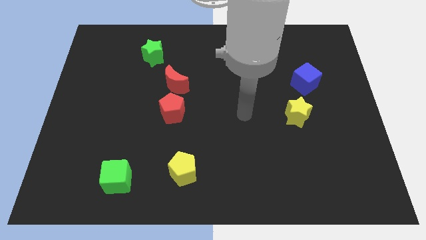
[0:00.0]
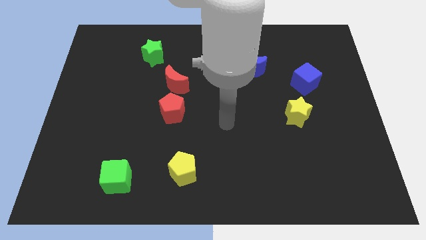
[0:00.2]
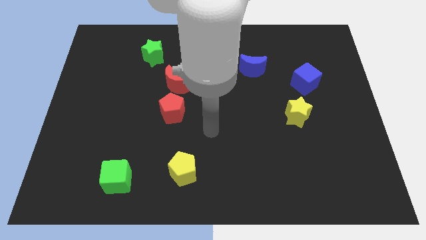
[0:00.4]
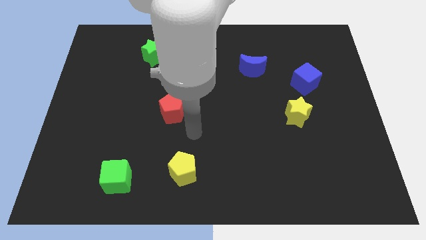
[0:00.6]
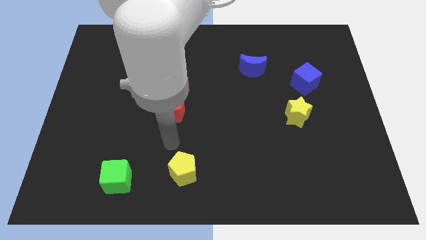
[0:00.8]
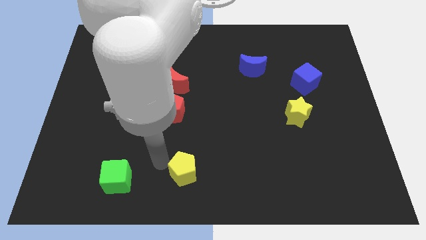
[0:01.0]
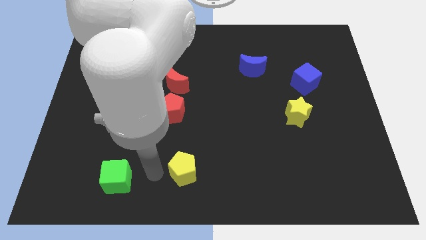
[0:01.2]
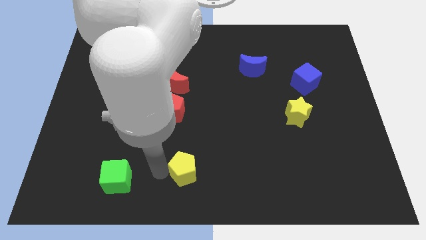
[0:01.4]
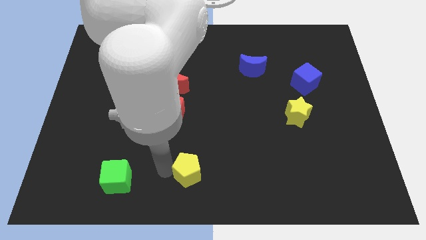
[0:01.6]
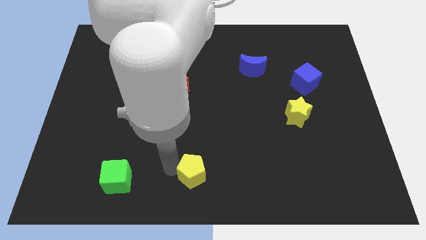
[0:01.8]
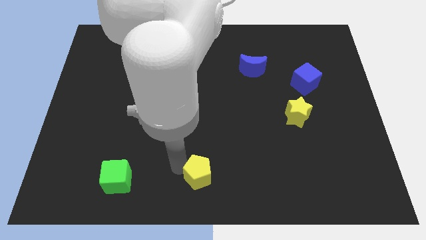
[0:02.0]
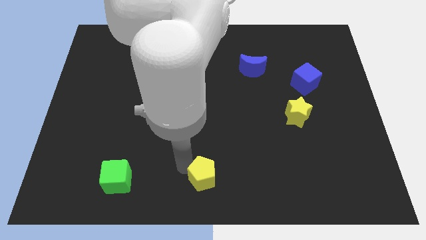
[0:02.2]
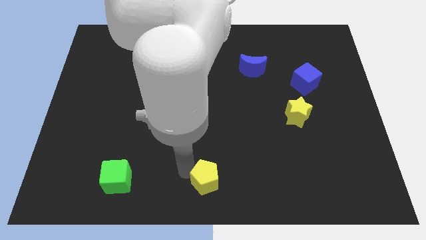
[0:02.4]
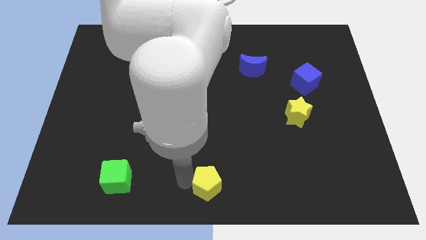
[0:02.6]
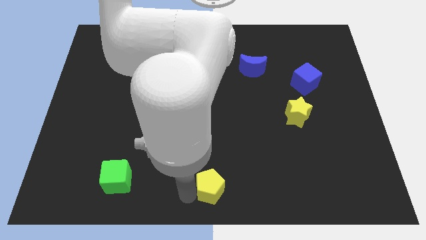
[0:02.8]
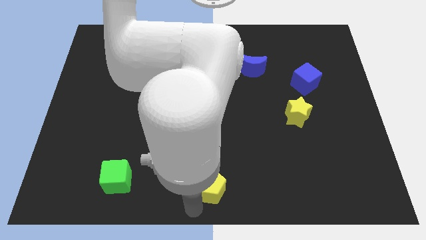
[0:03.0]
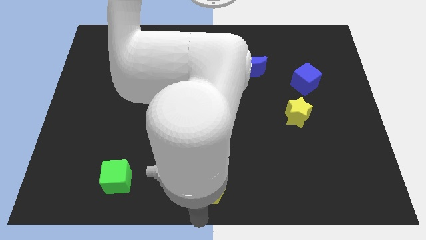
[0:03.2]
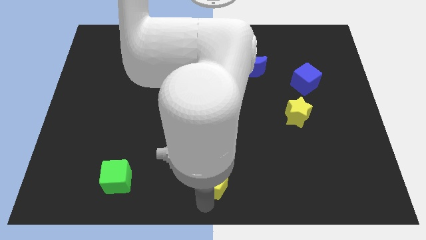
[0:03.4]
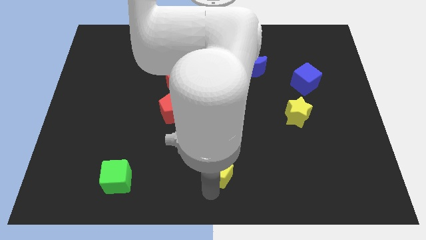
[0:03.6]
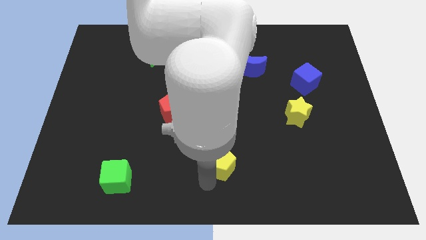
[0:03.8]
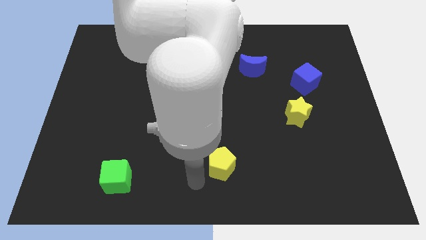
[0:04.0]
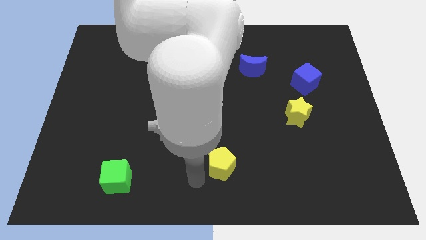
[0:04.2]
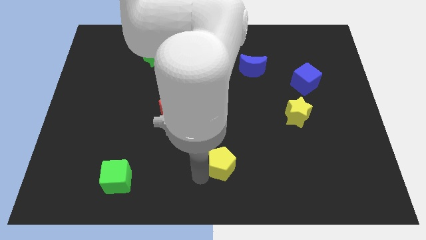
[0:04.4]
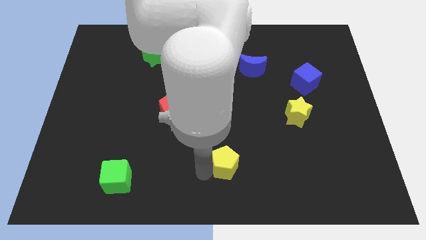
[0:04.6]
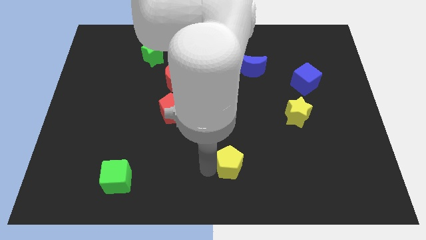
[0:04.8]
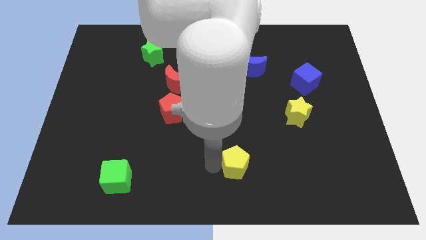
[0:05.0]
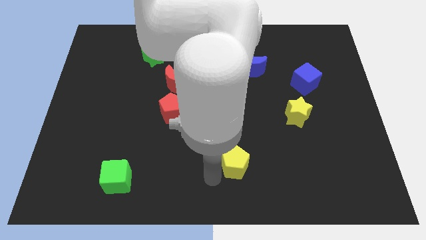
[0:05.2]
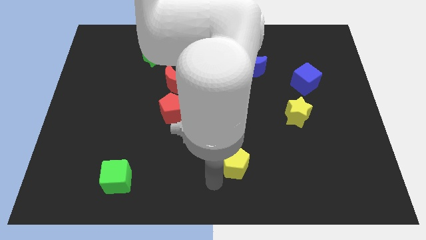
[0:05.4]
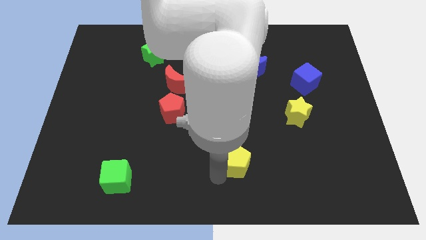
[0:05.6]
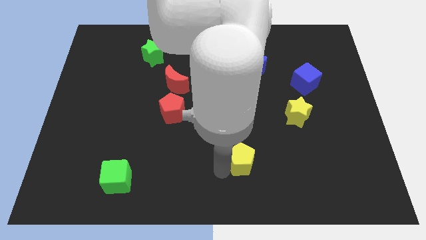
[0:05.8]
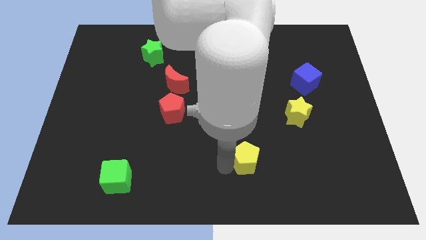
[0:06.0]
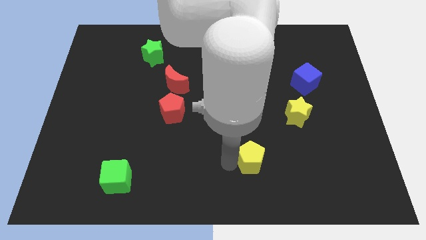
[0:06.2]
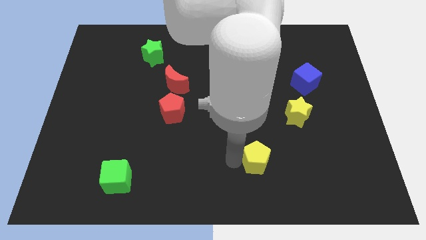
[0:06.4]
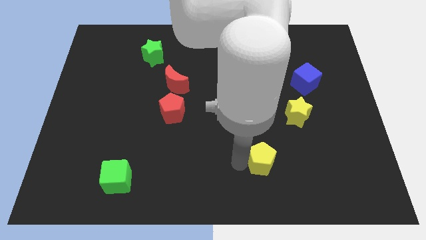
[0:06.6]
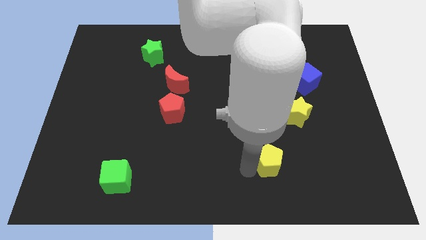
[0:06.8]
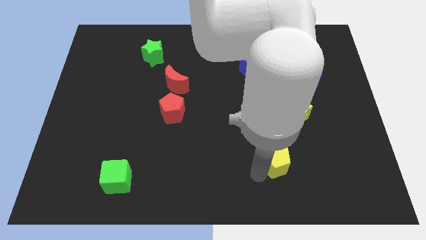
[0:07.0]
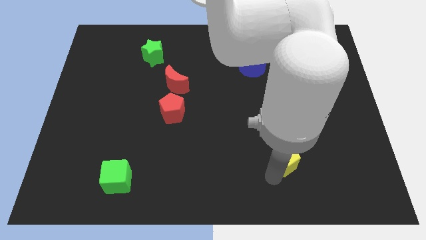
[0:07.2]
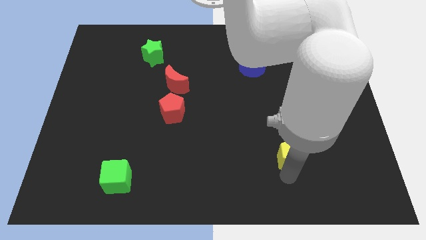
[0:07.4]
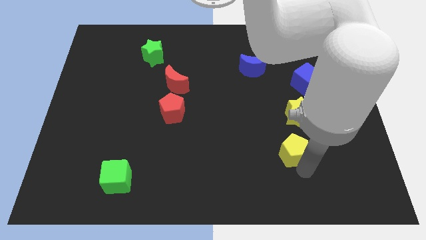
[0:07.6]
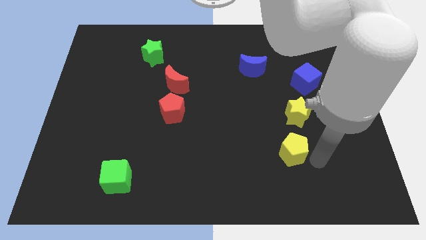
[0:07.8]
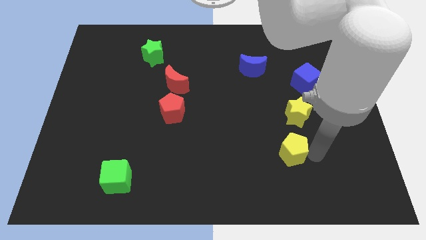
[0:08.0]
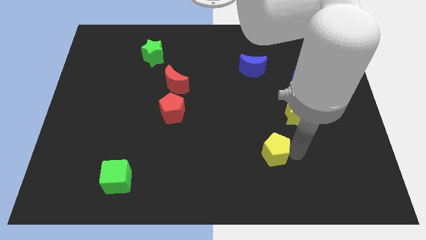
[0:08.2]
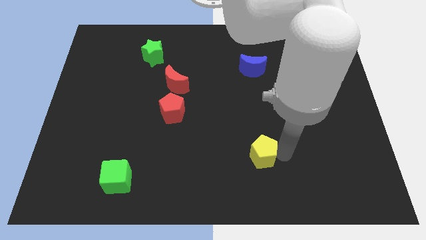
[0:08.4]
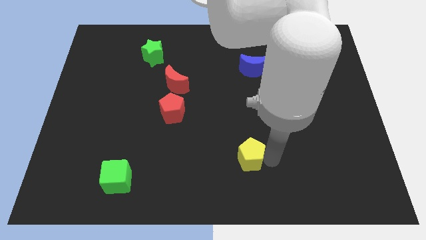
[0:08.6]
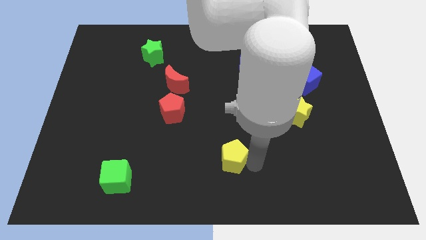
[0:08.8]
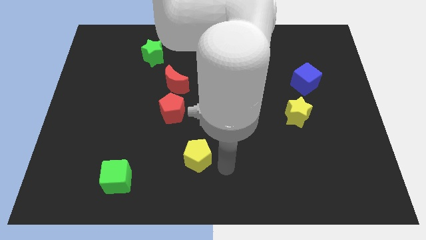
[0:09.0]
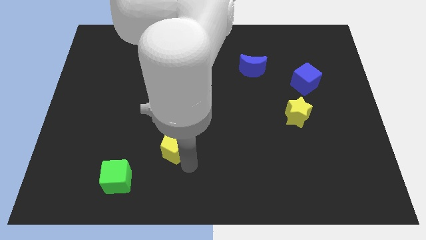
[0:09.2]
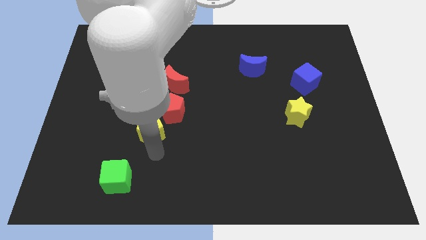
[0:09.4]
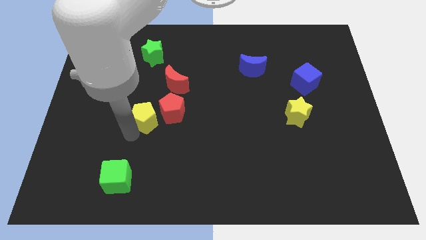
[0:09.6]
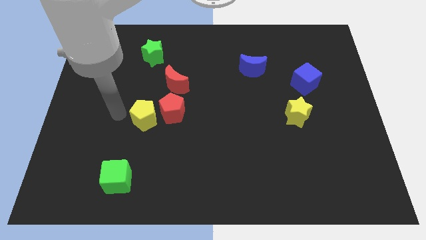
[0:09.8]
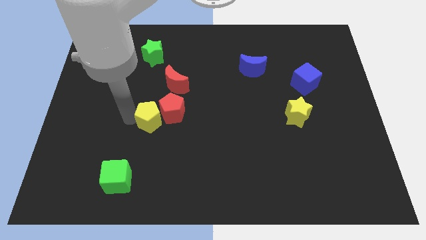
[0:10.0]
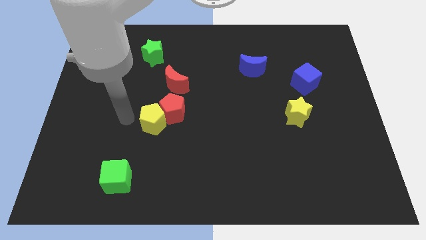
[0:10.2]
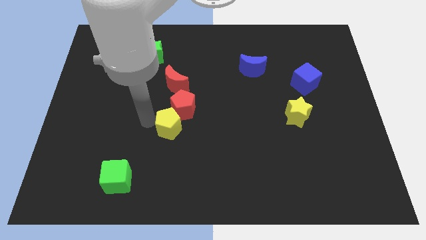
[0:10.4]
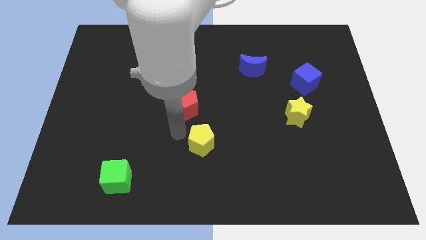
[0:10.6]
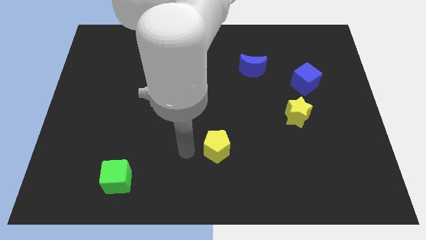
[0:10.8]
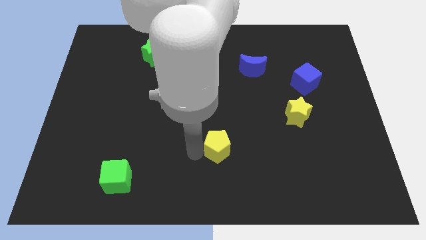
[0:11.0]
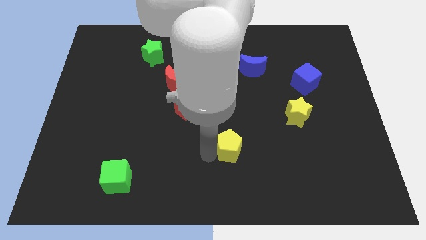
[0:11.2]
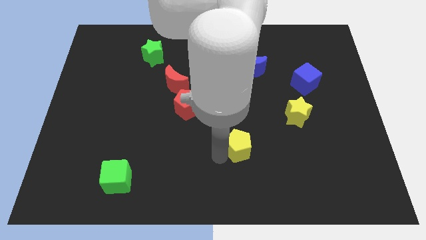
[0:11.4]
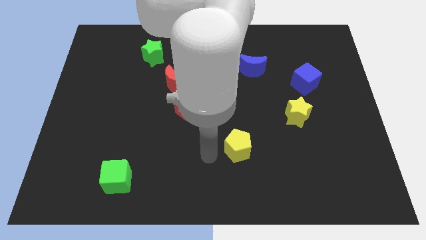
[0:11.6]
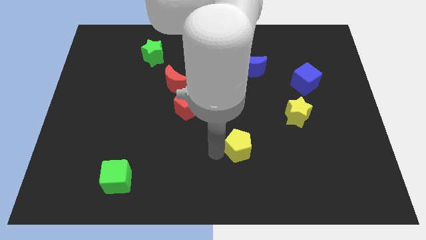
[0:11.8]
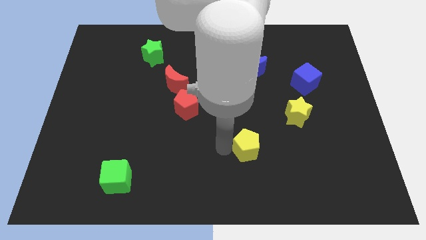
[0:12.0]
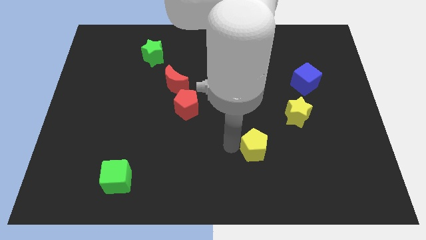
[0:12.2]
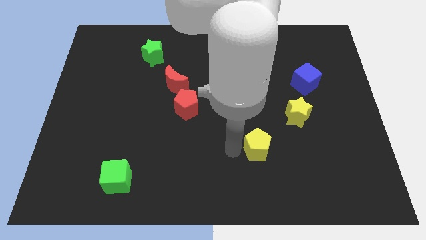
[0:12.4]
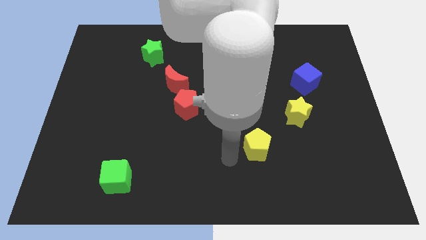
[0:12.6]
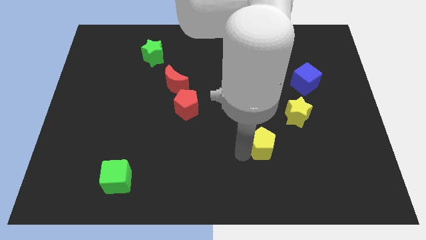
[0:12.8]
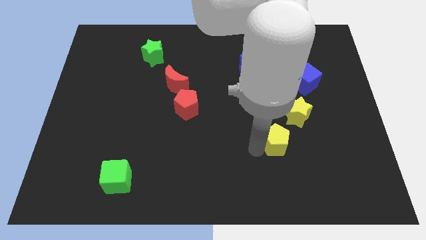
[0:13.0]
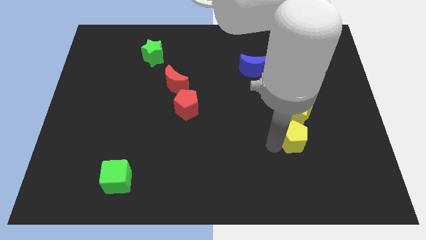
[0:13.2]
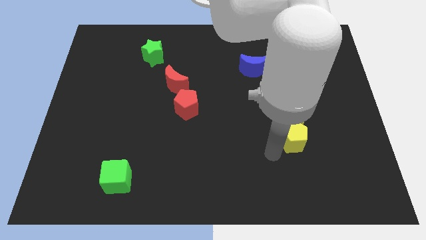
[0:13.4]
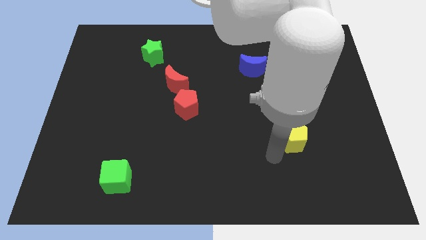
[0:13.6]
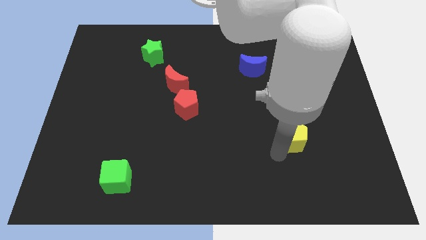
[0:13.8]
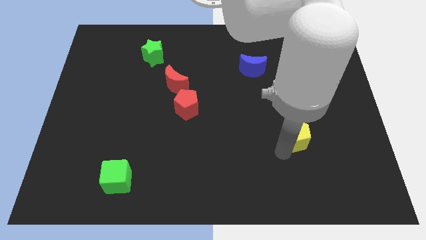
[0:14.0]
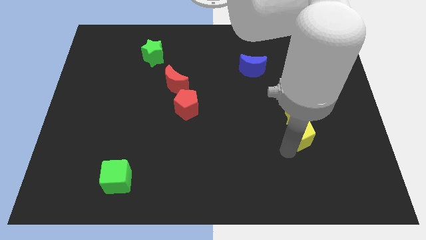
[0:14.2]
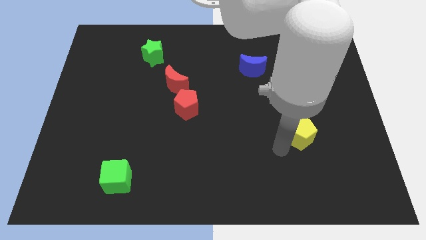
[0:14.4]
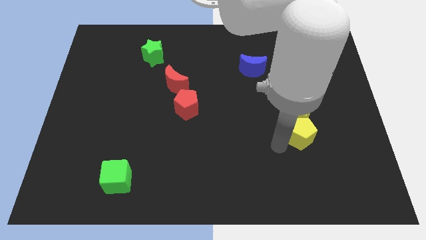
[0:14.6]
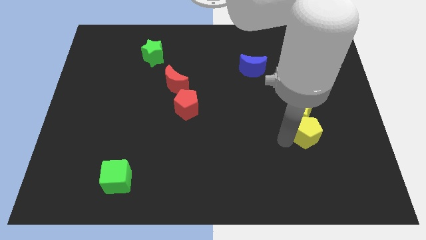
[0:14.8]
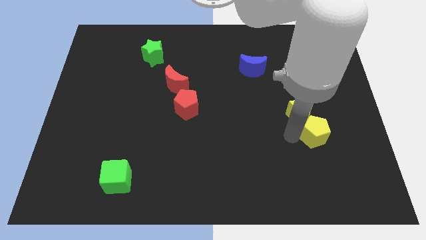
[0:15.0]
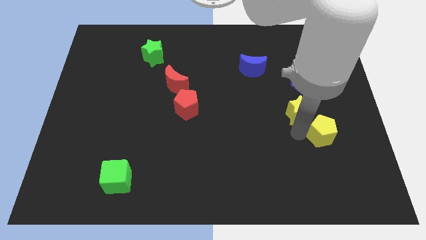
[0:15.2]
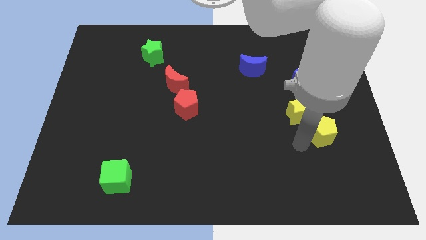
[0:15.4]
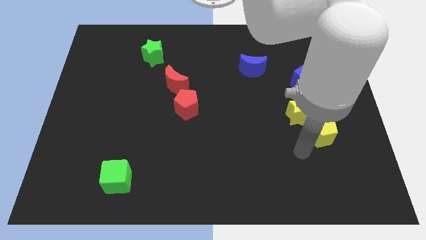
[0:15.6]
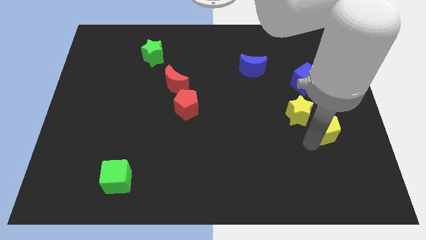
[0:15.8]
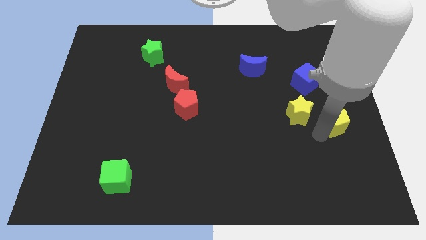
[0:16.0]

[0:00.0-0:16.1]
put the yellow pentagon to the right side
